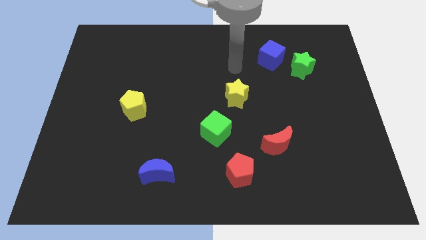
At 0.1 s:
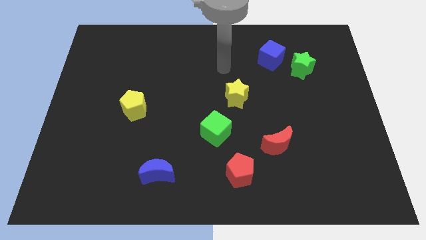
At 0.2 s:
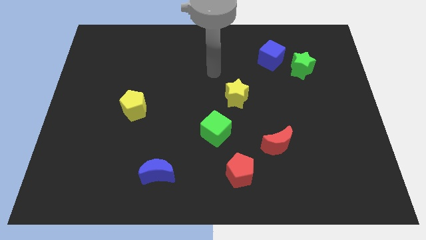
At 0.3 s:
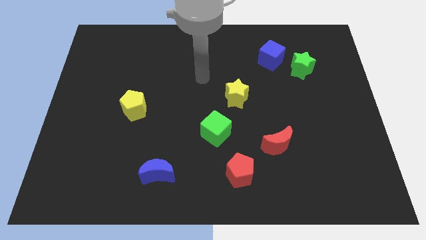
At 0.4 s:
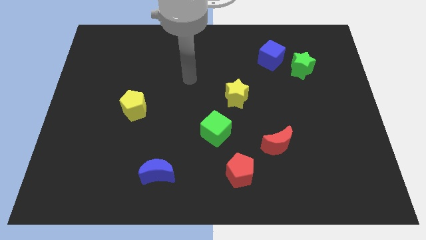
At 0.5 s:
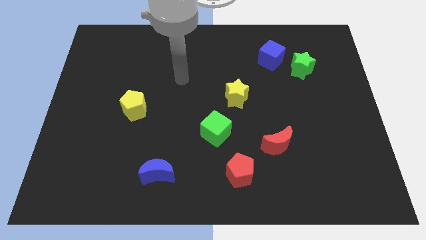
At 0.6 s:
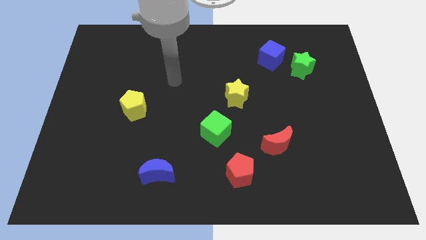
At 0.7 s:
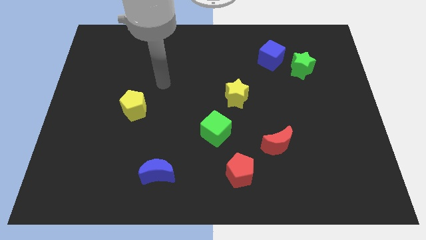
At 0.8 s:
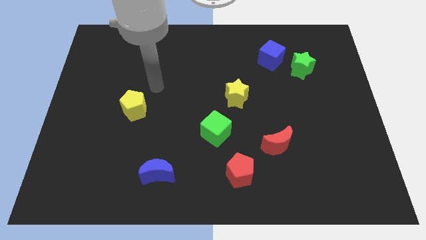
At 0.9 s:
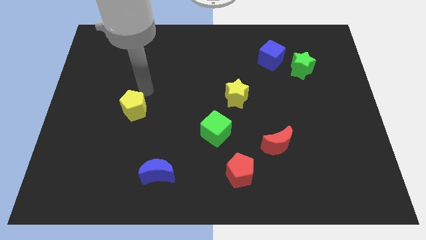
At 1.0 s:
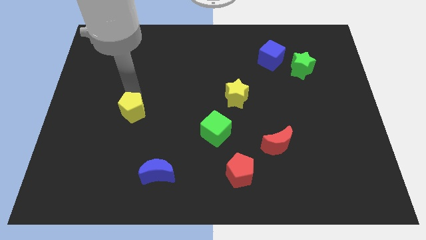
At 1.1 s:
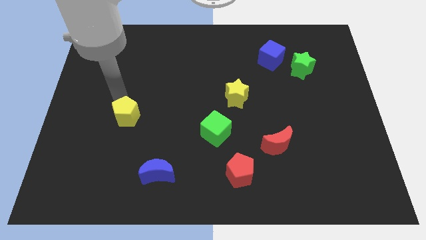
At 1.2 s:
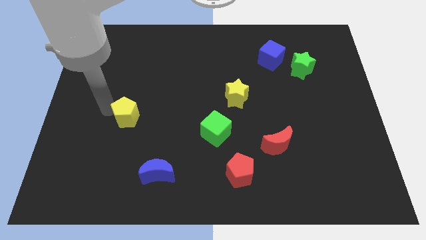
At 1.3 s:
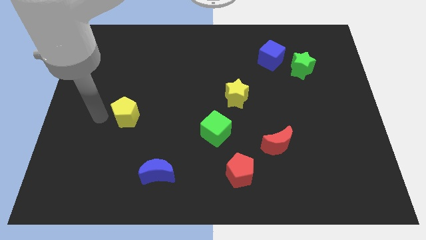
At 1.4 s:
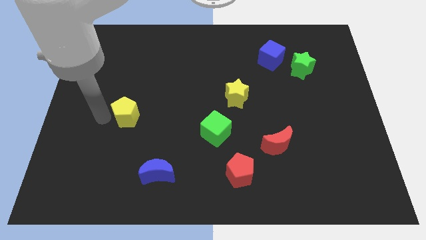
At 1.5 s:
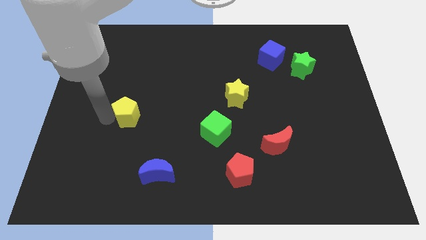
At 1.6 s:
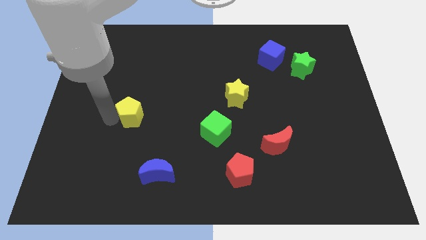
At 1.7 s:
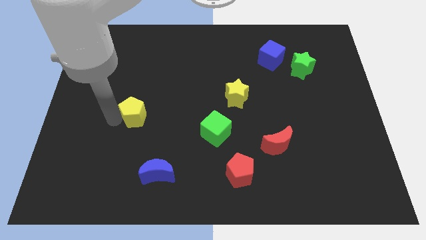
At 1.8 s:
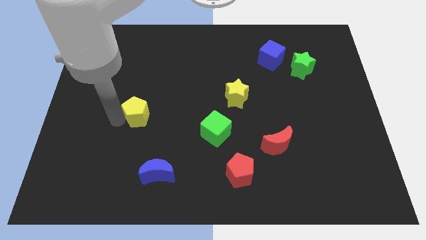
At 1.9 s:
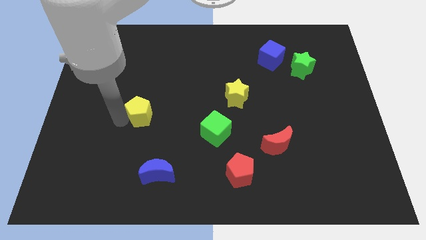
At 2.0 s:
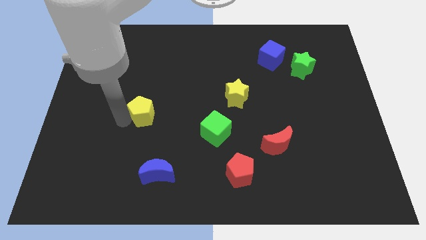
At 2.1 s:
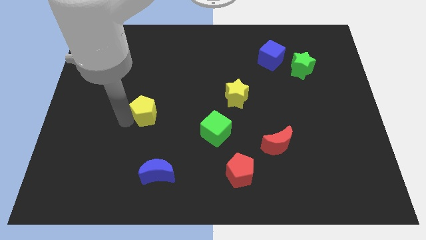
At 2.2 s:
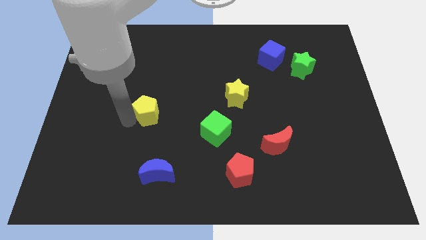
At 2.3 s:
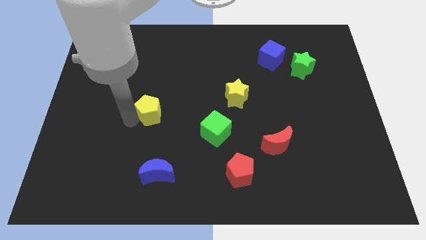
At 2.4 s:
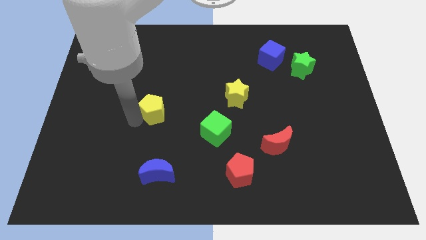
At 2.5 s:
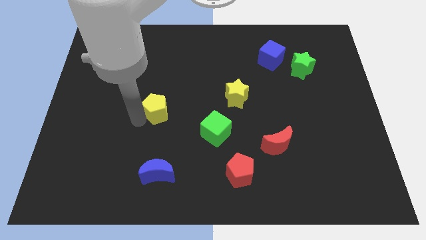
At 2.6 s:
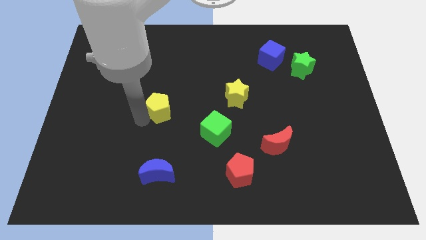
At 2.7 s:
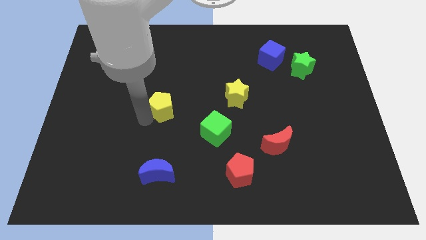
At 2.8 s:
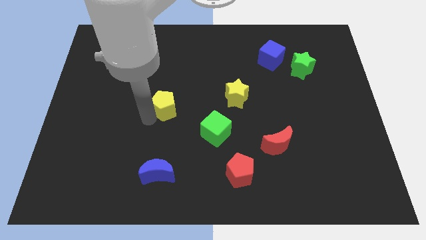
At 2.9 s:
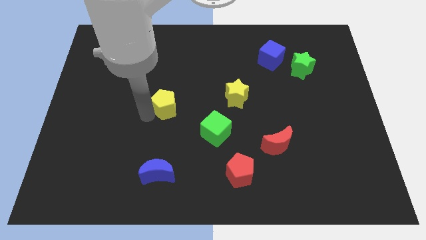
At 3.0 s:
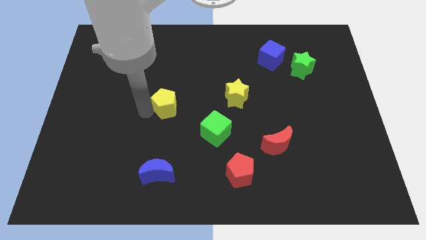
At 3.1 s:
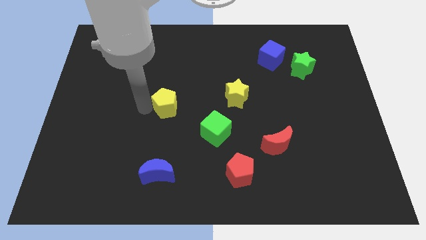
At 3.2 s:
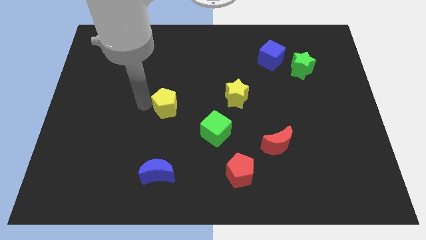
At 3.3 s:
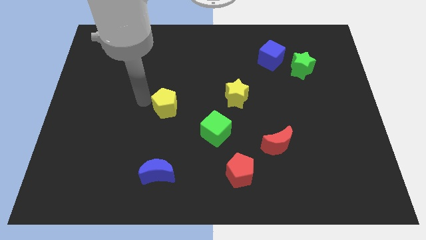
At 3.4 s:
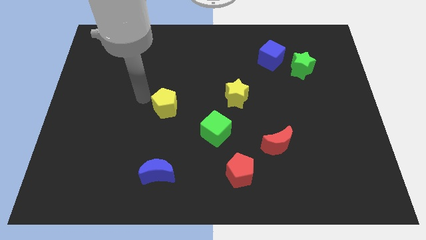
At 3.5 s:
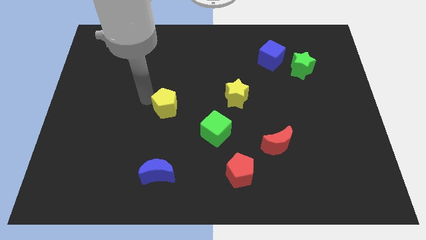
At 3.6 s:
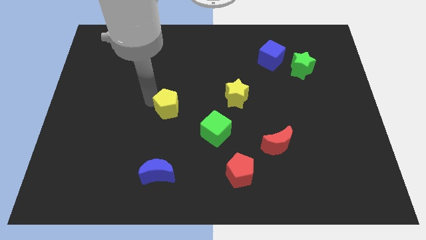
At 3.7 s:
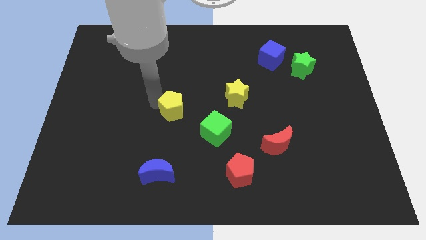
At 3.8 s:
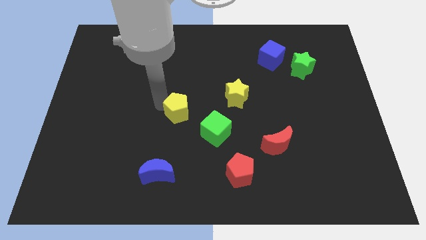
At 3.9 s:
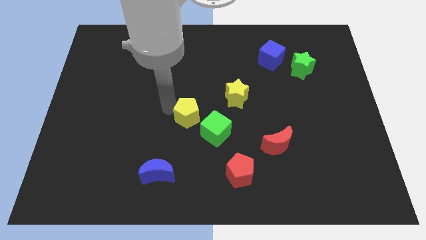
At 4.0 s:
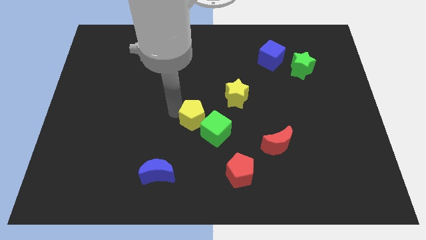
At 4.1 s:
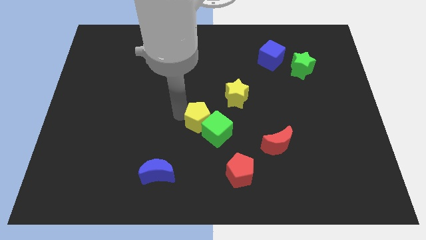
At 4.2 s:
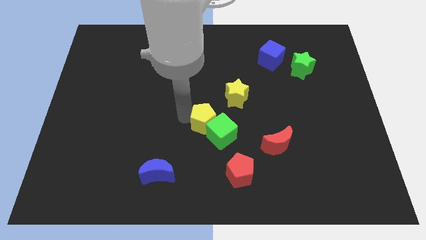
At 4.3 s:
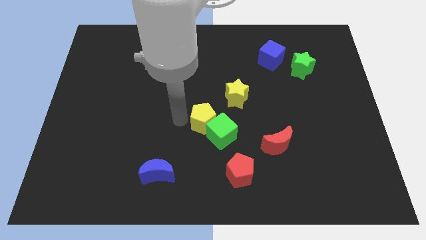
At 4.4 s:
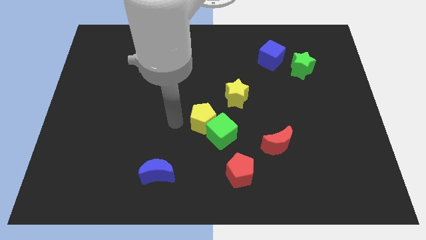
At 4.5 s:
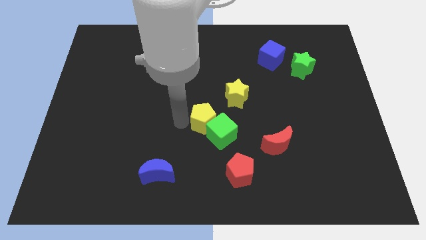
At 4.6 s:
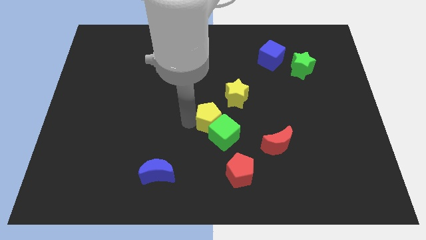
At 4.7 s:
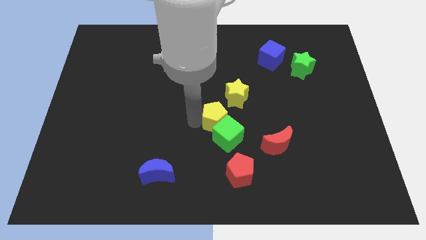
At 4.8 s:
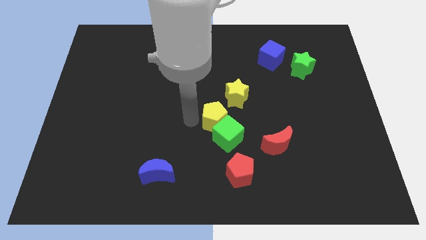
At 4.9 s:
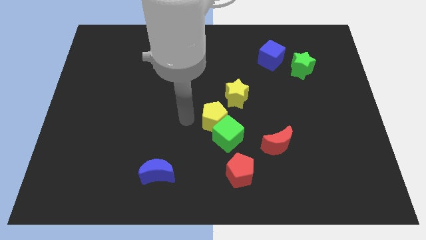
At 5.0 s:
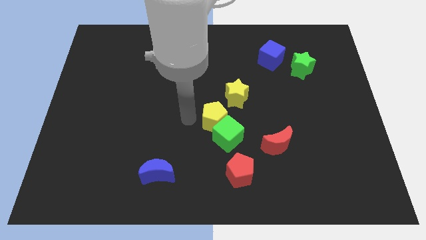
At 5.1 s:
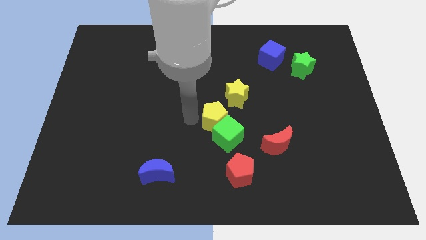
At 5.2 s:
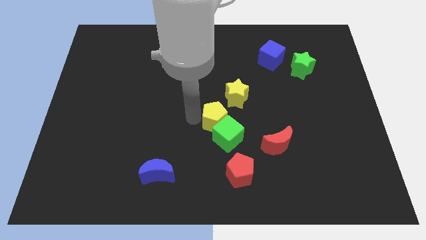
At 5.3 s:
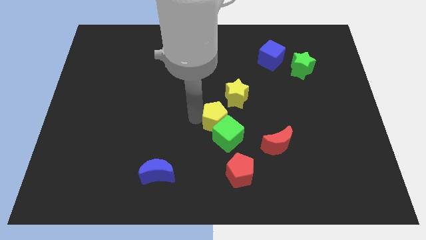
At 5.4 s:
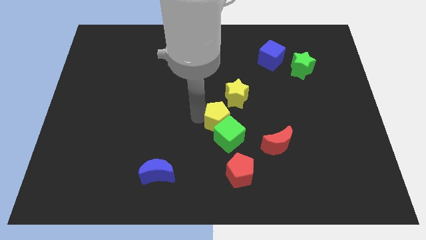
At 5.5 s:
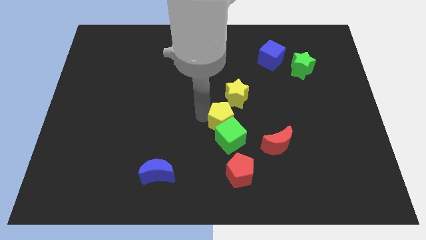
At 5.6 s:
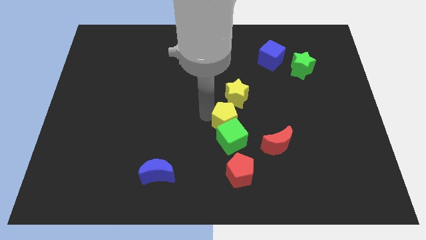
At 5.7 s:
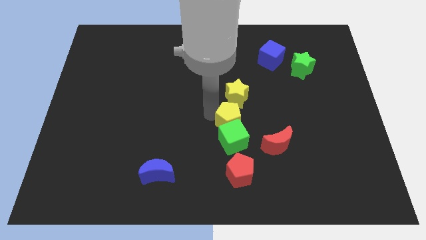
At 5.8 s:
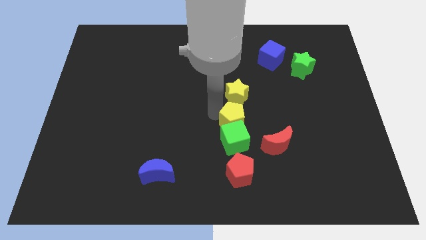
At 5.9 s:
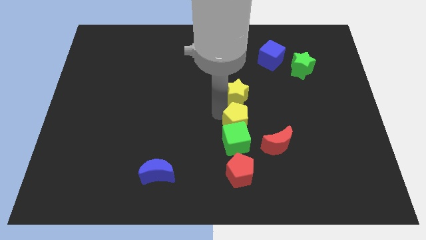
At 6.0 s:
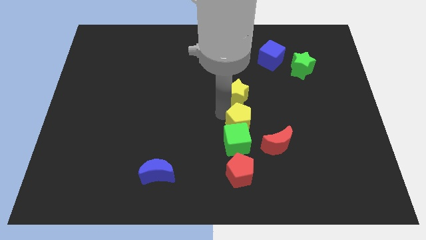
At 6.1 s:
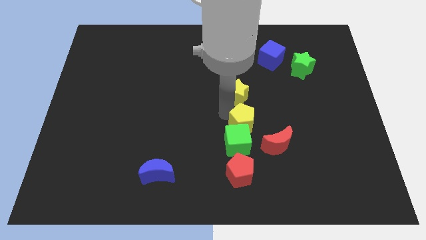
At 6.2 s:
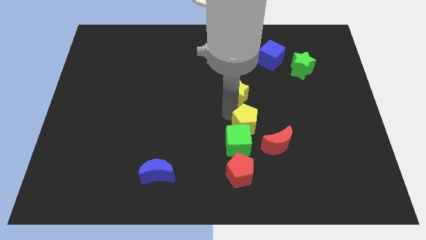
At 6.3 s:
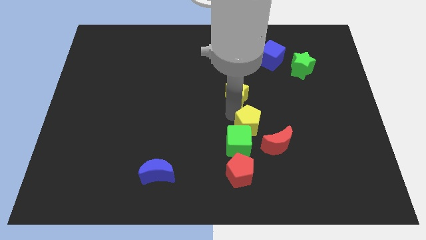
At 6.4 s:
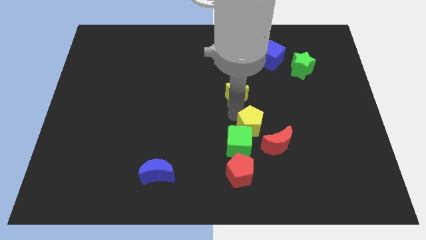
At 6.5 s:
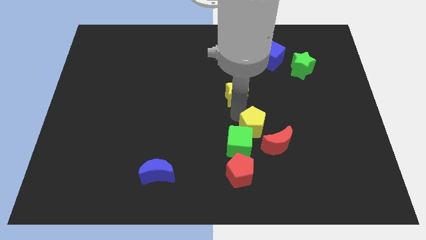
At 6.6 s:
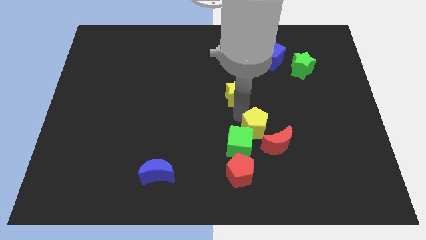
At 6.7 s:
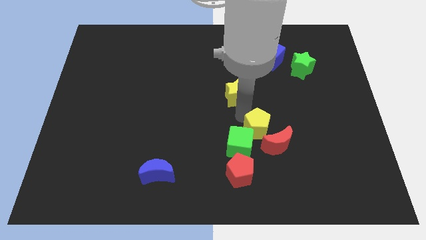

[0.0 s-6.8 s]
put the yellow pentagon to the red moon
